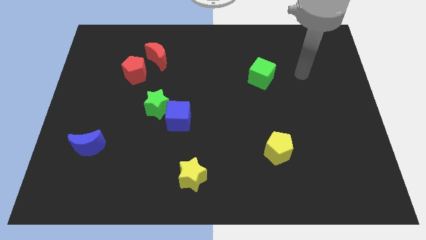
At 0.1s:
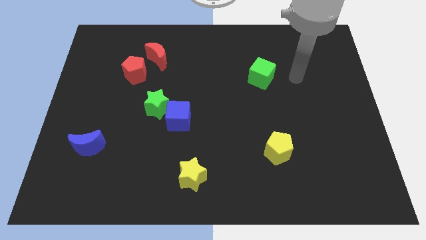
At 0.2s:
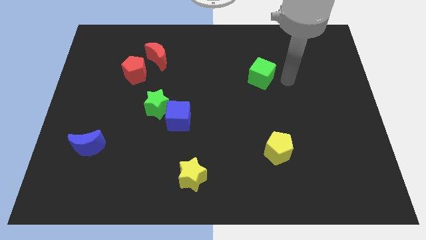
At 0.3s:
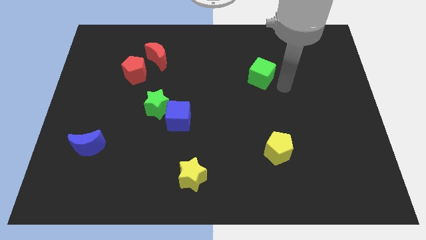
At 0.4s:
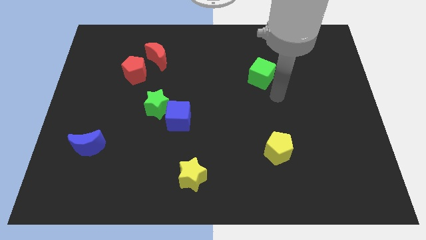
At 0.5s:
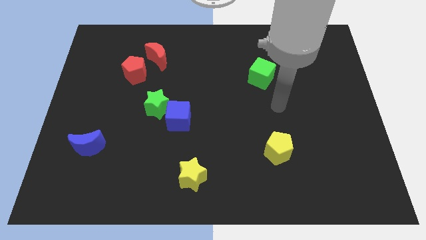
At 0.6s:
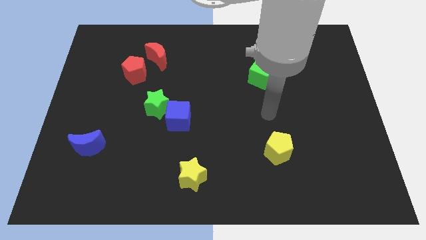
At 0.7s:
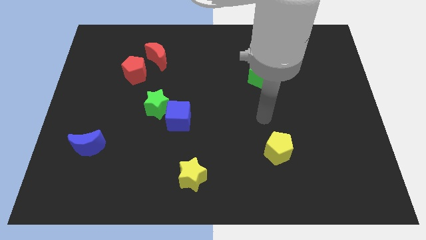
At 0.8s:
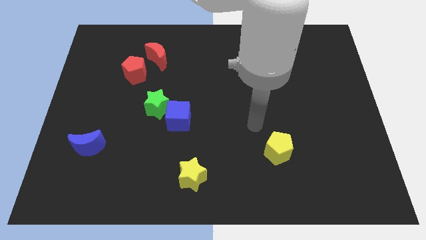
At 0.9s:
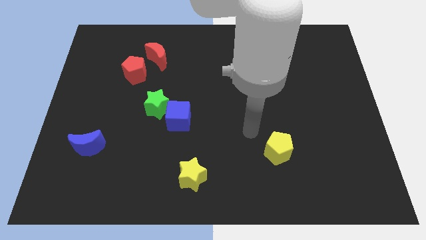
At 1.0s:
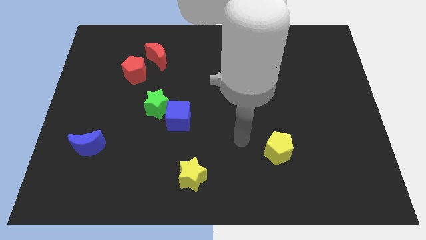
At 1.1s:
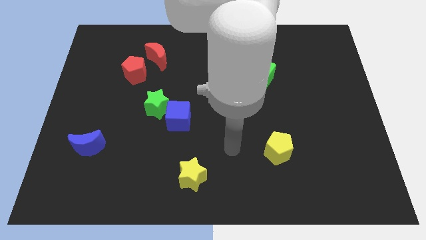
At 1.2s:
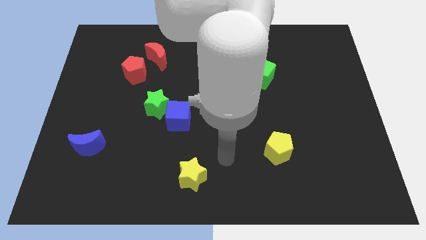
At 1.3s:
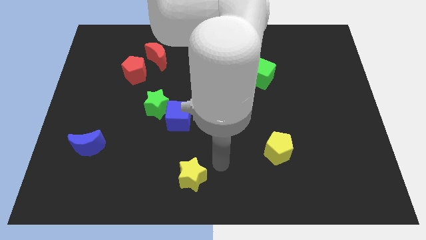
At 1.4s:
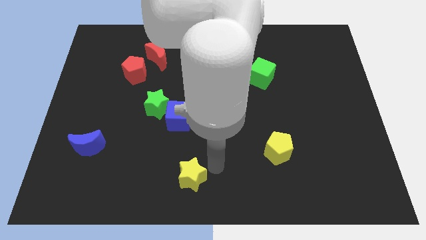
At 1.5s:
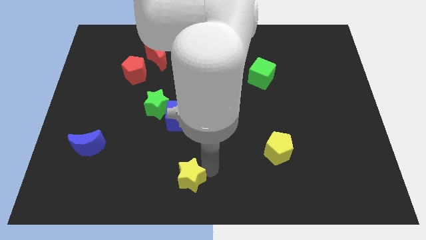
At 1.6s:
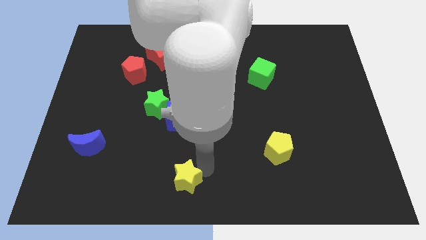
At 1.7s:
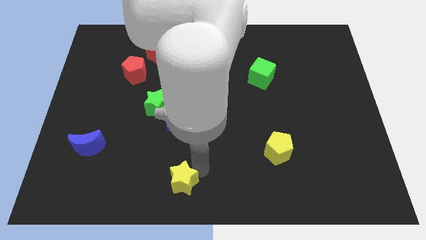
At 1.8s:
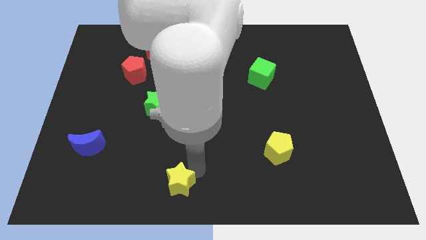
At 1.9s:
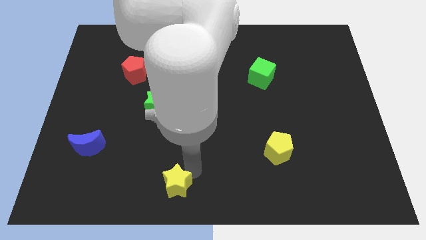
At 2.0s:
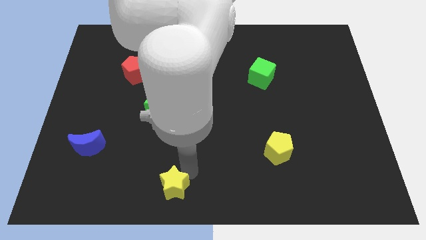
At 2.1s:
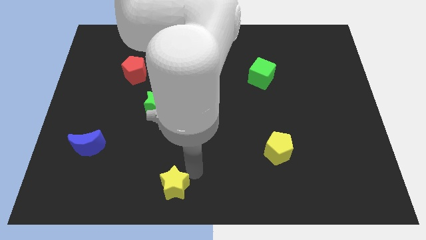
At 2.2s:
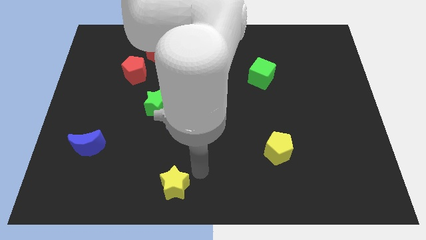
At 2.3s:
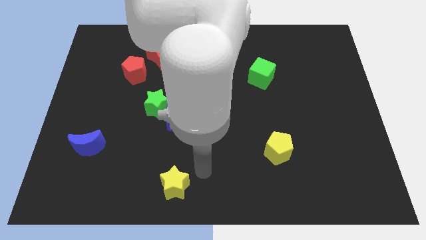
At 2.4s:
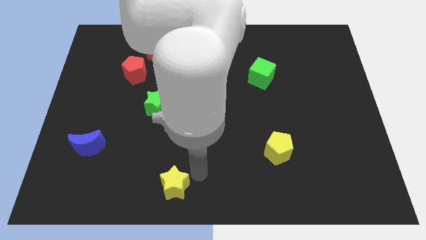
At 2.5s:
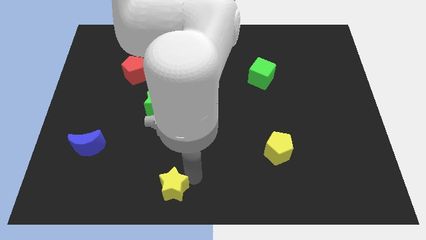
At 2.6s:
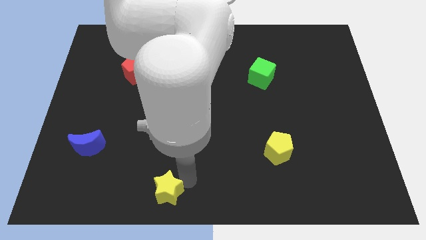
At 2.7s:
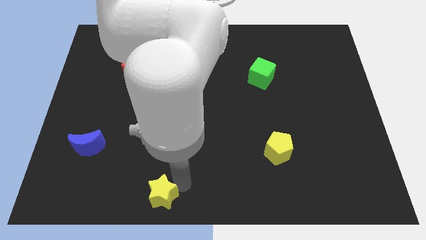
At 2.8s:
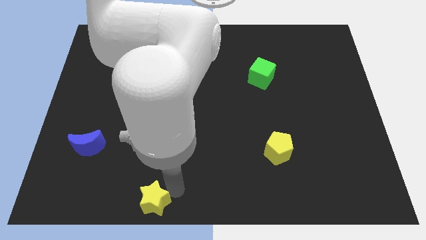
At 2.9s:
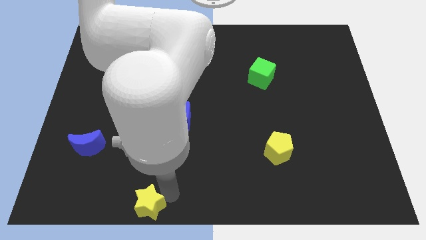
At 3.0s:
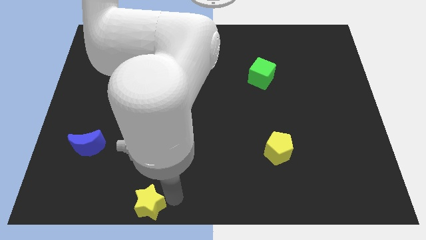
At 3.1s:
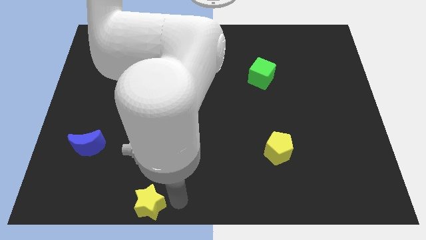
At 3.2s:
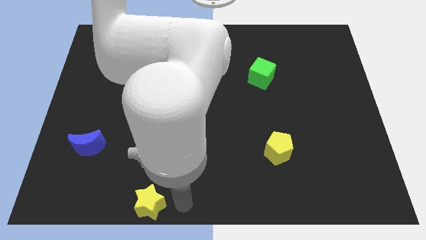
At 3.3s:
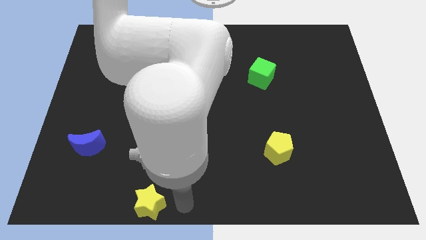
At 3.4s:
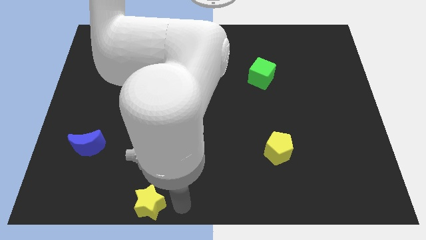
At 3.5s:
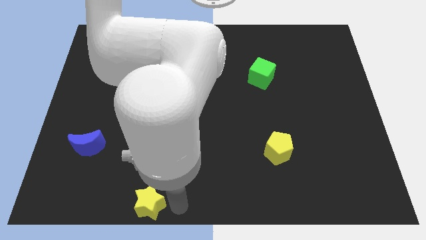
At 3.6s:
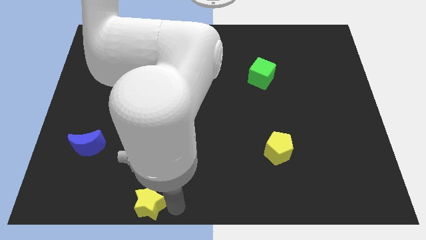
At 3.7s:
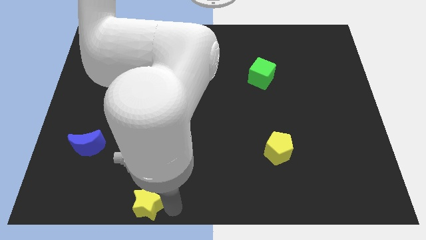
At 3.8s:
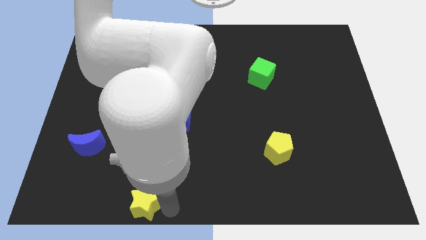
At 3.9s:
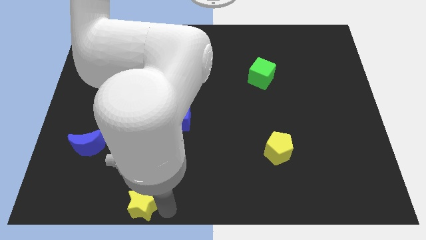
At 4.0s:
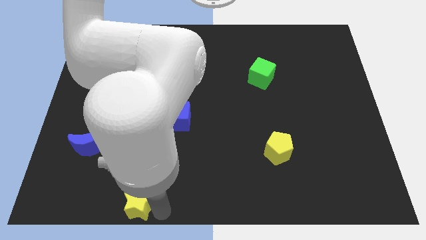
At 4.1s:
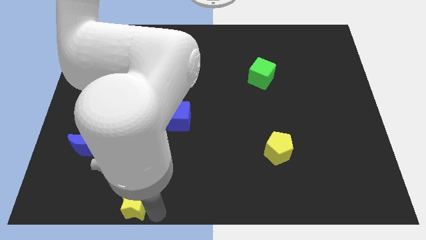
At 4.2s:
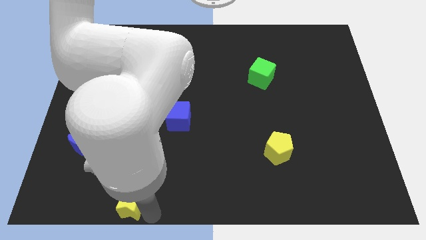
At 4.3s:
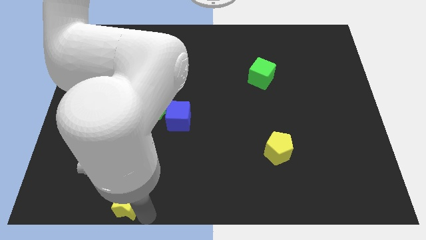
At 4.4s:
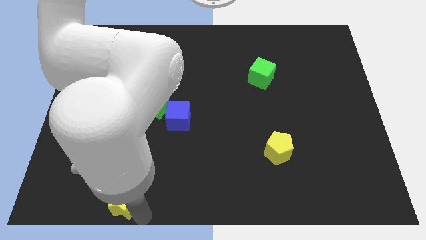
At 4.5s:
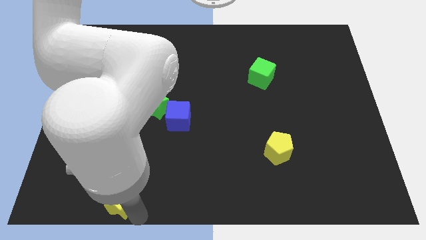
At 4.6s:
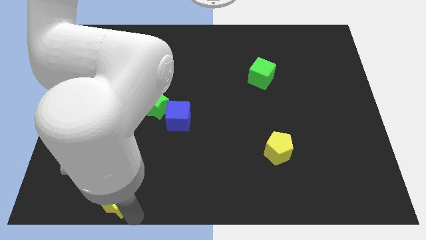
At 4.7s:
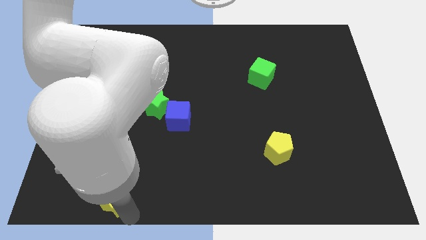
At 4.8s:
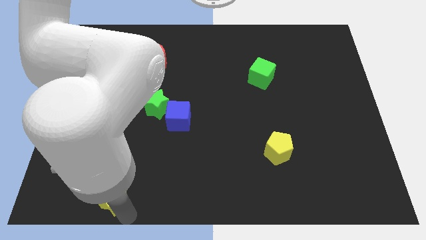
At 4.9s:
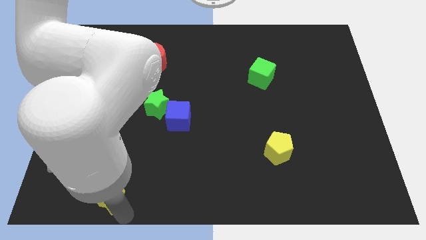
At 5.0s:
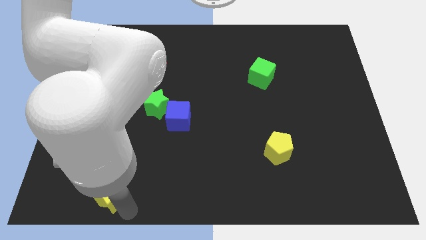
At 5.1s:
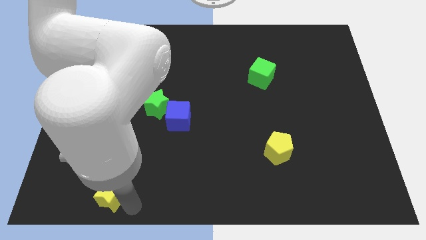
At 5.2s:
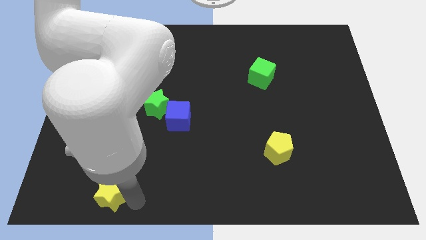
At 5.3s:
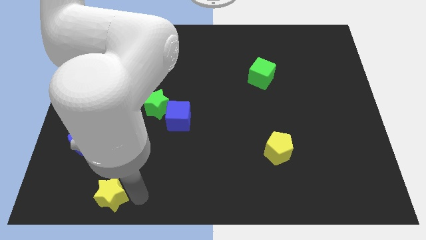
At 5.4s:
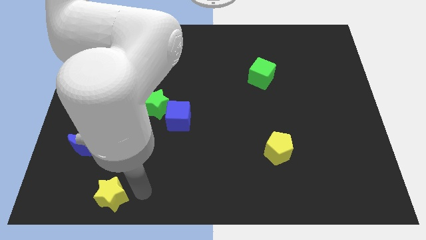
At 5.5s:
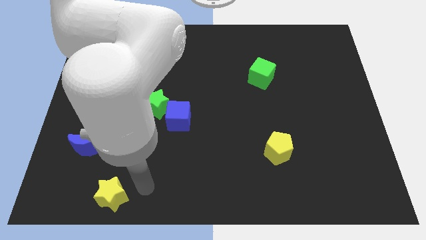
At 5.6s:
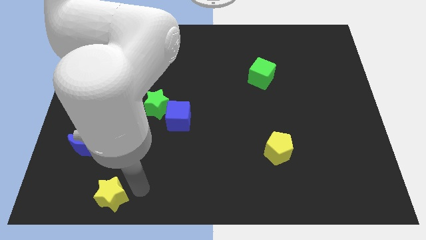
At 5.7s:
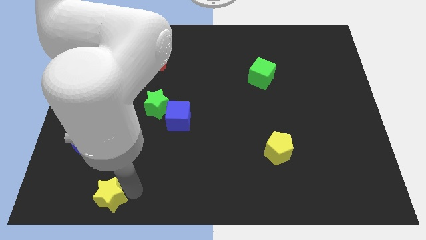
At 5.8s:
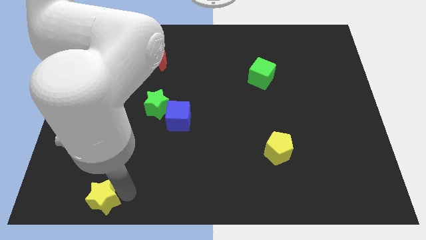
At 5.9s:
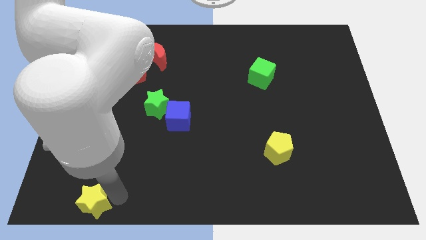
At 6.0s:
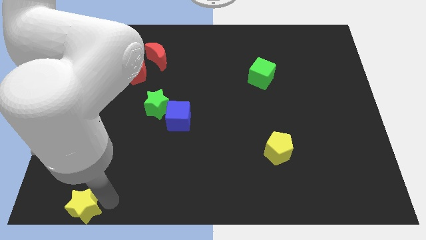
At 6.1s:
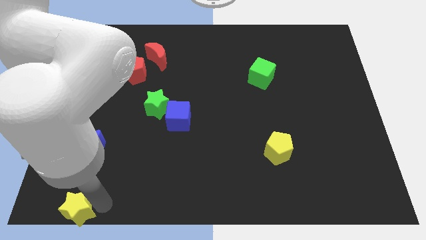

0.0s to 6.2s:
put the yellow star to the bottom left of the board

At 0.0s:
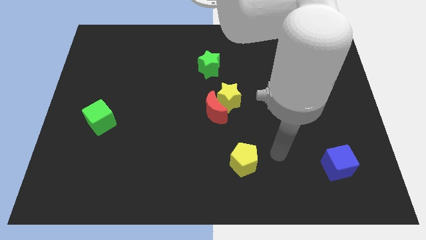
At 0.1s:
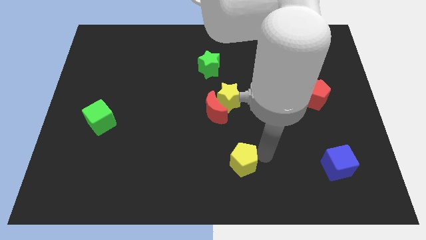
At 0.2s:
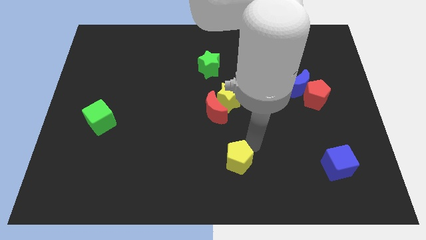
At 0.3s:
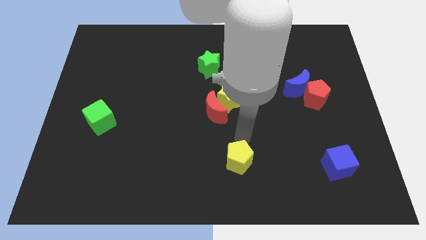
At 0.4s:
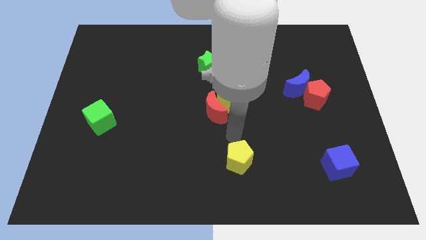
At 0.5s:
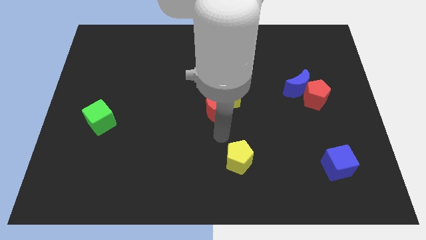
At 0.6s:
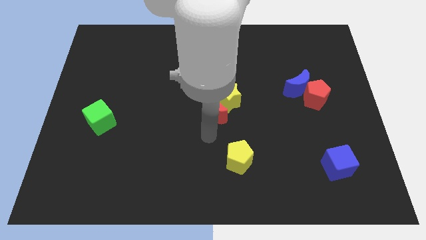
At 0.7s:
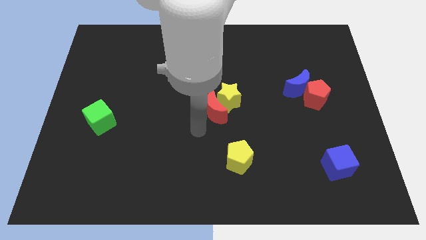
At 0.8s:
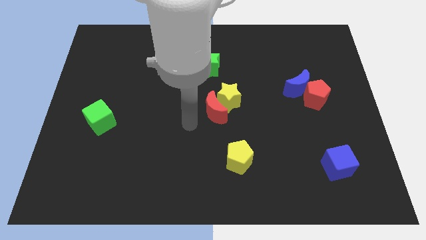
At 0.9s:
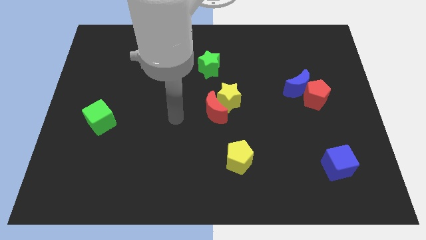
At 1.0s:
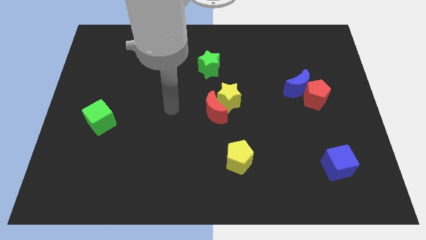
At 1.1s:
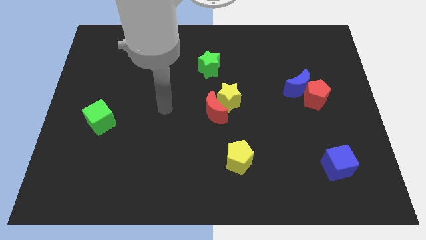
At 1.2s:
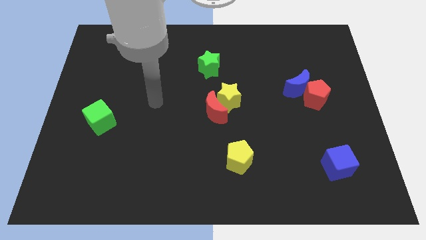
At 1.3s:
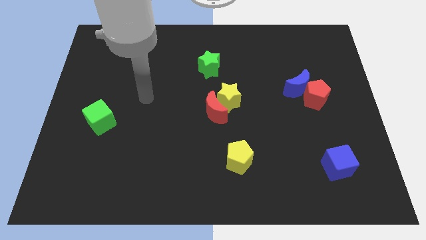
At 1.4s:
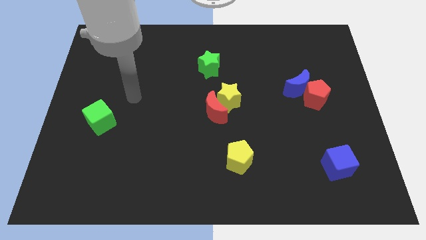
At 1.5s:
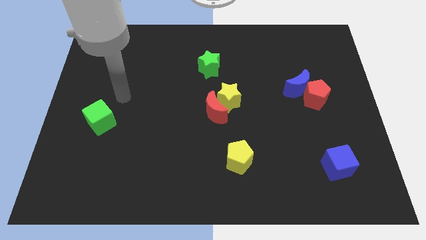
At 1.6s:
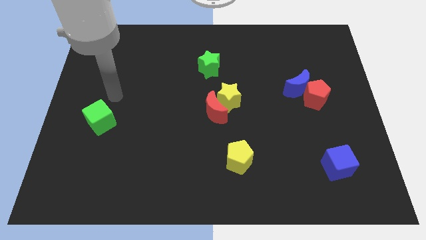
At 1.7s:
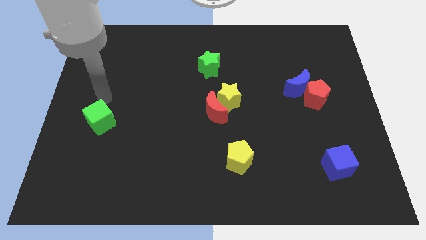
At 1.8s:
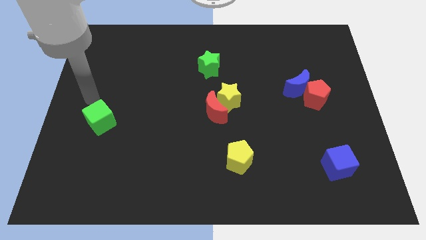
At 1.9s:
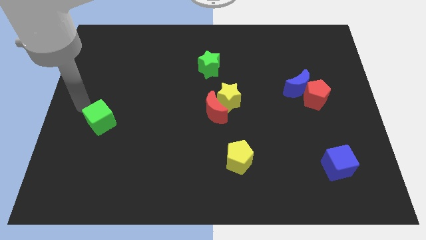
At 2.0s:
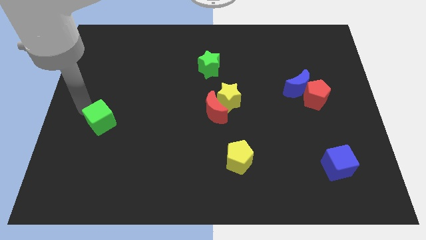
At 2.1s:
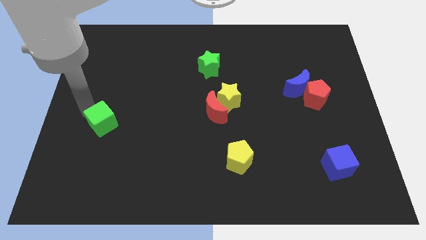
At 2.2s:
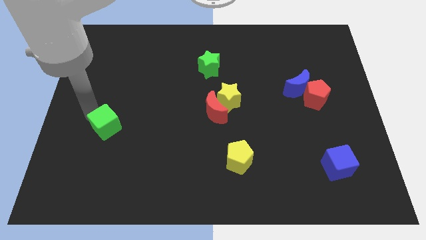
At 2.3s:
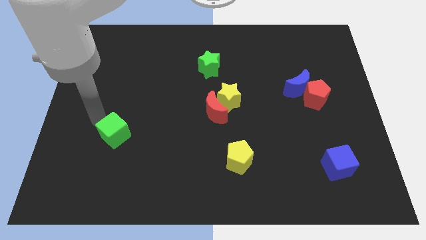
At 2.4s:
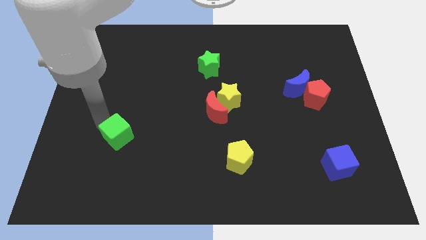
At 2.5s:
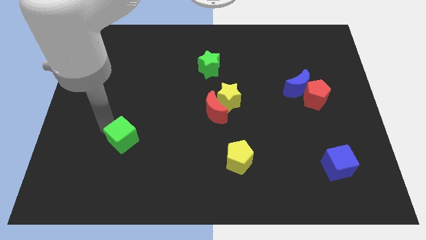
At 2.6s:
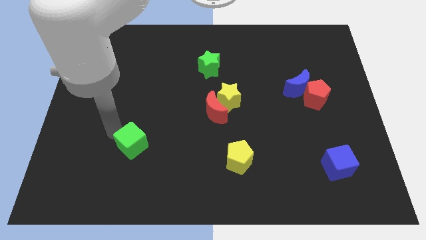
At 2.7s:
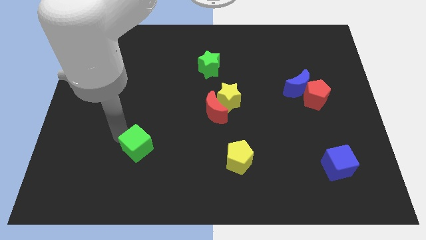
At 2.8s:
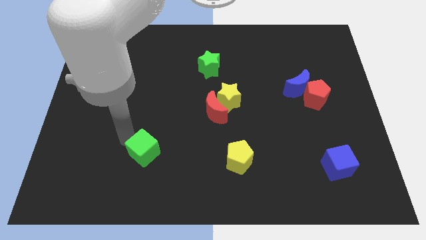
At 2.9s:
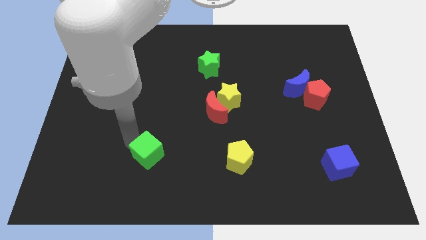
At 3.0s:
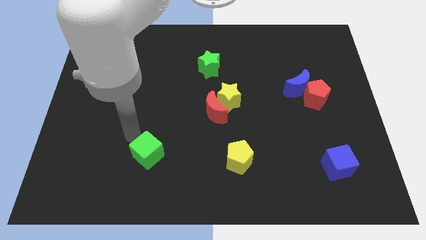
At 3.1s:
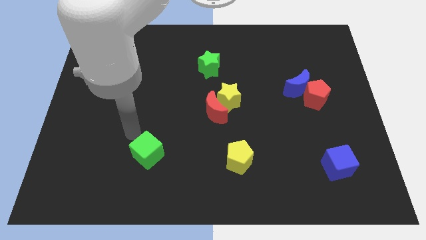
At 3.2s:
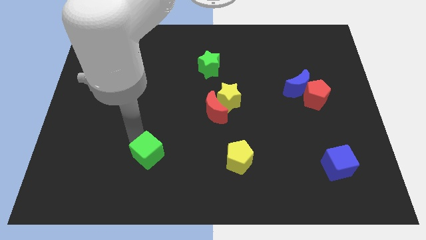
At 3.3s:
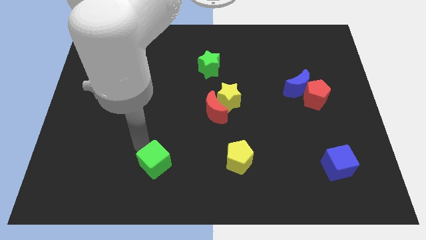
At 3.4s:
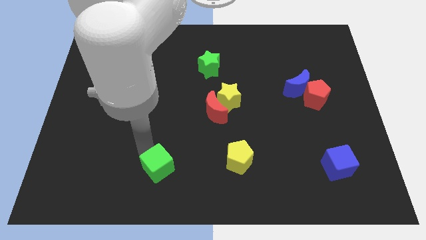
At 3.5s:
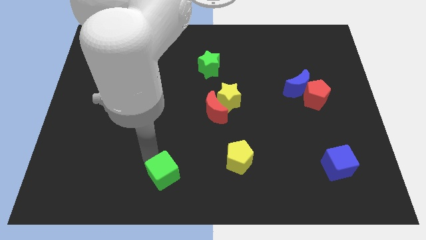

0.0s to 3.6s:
slide the green cube to the bottom side
